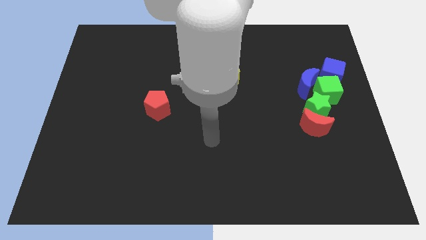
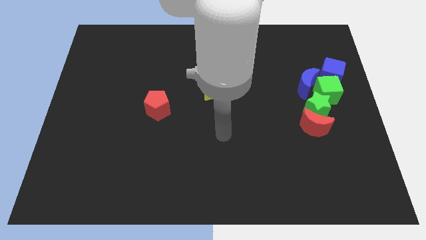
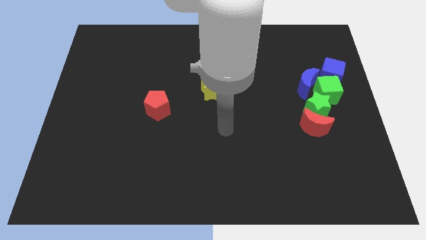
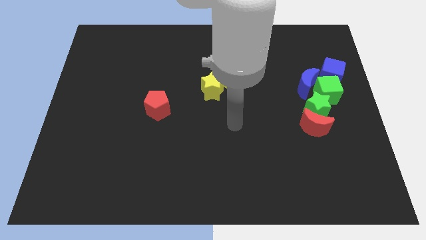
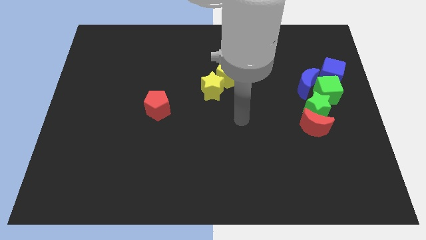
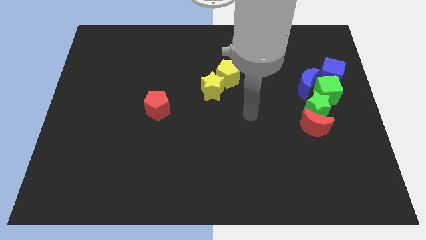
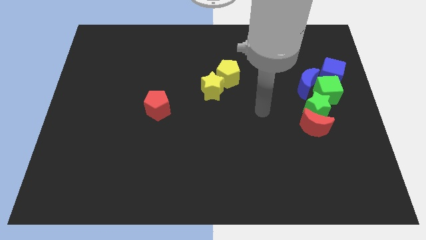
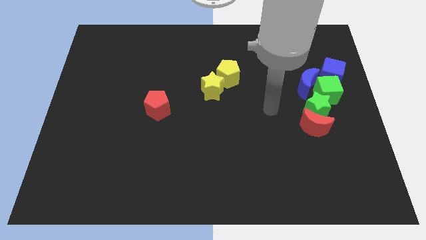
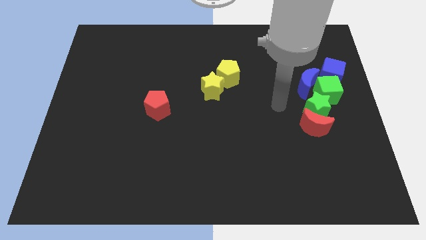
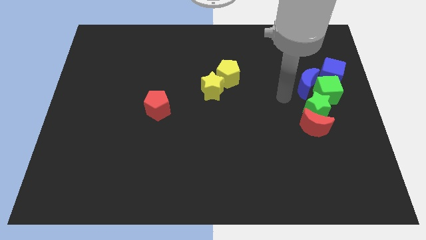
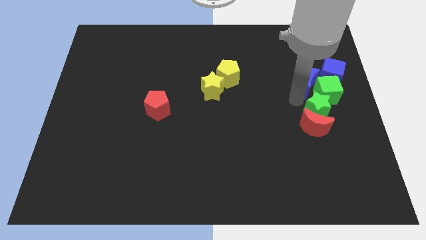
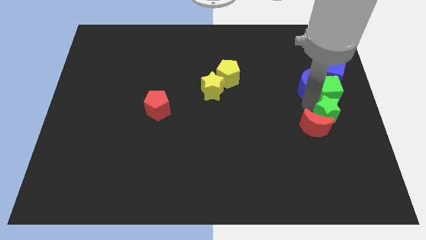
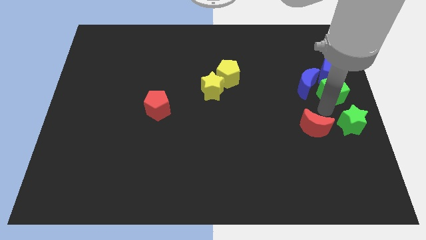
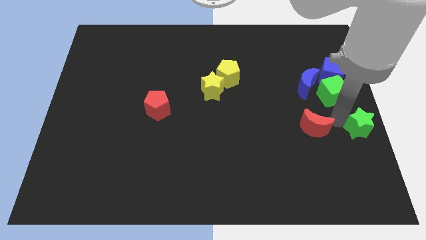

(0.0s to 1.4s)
separate the red moon from the green star

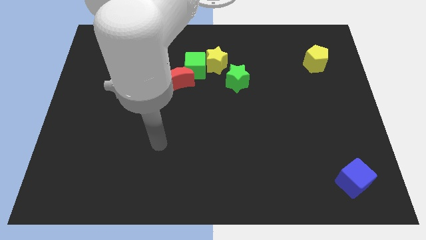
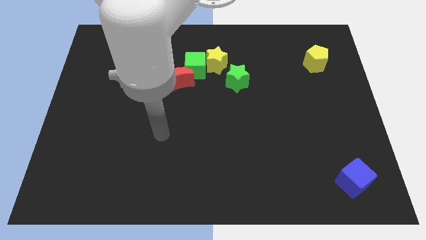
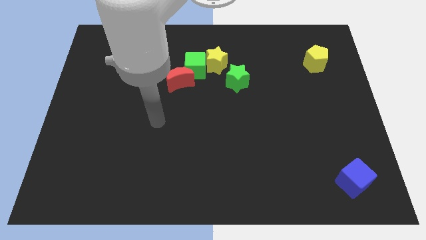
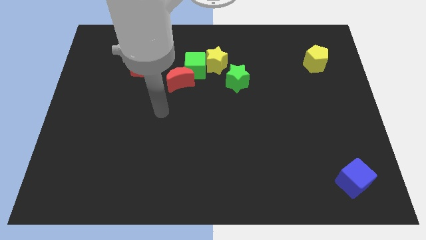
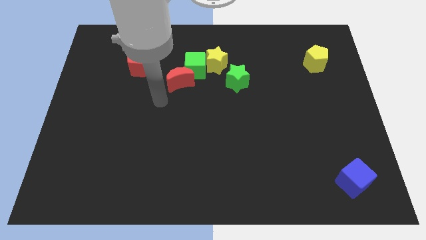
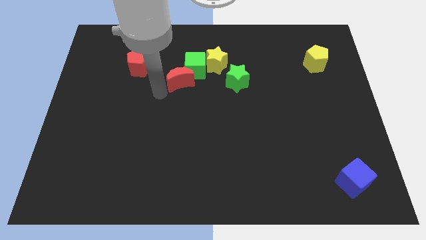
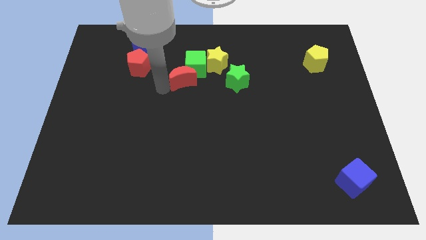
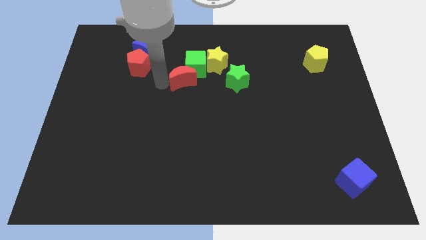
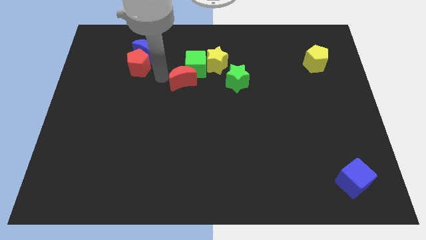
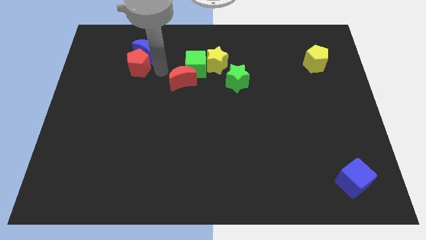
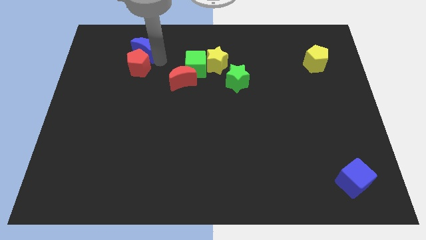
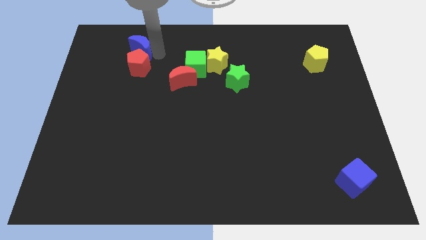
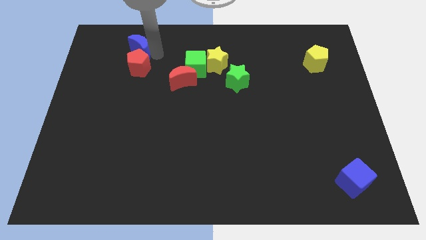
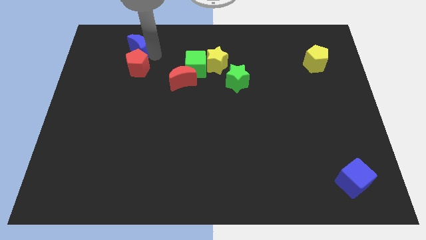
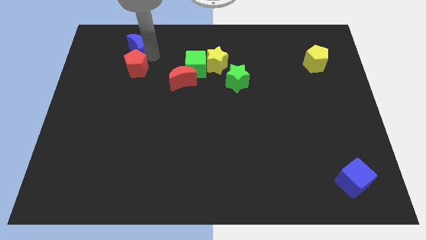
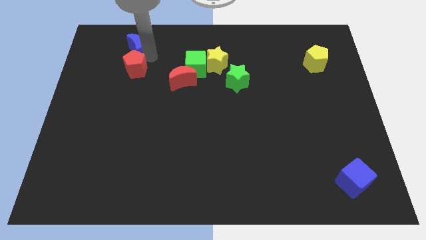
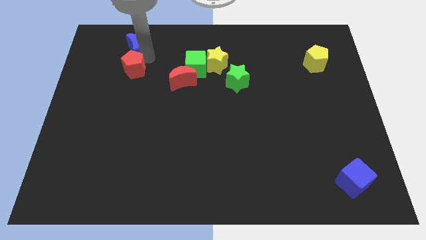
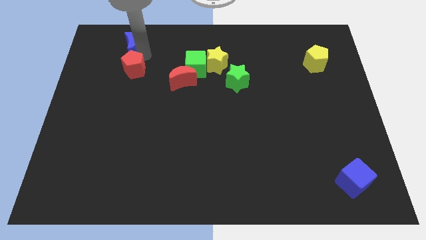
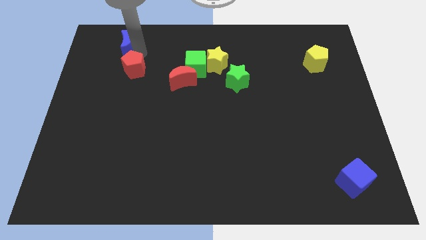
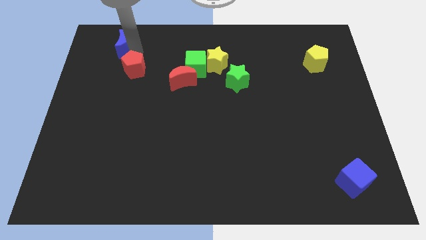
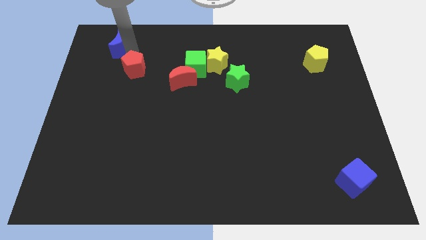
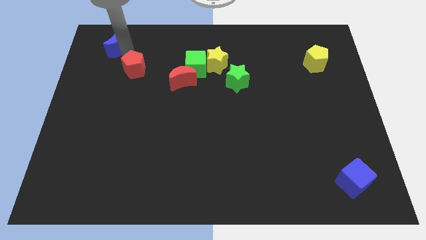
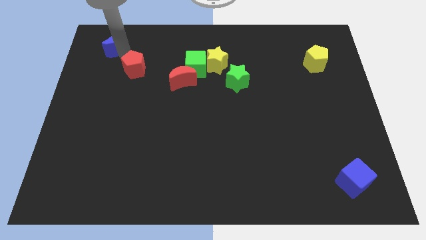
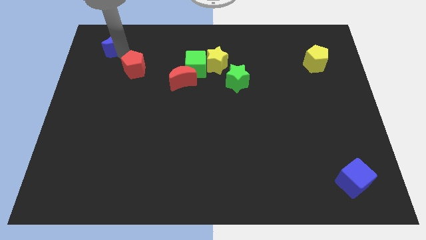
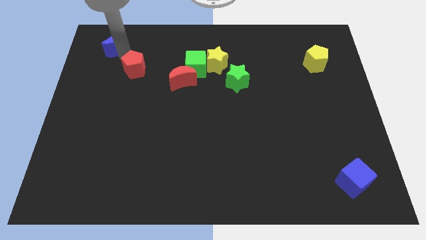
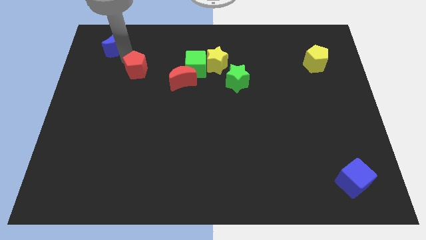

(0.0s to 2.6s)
separate the red pentagon from the blue moon

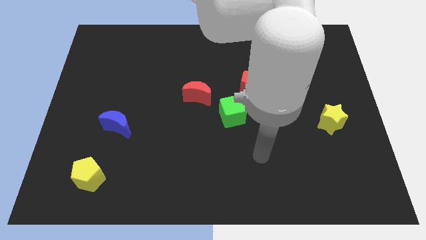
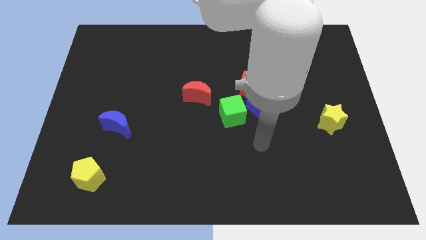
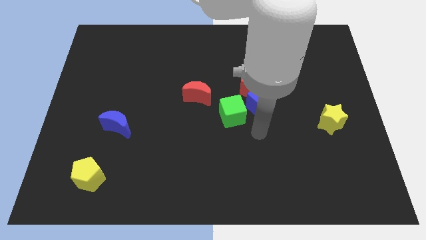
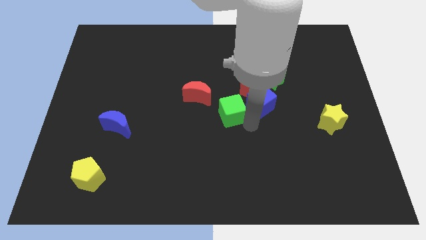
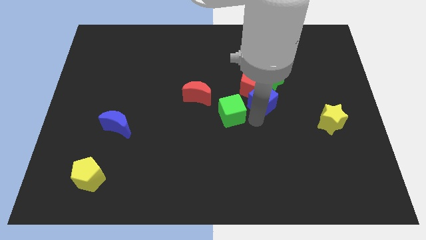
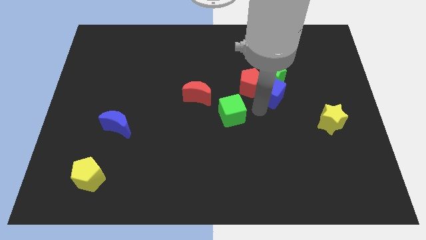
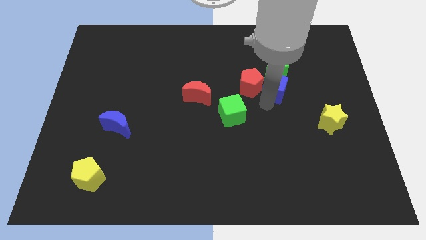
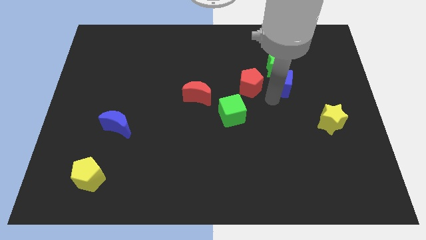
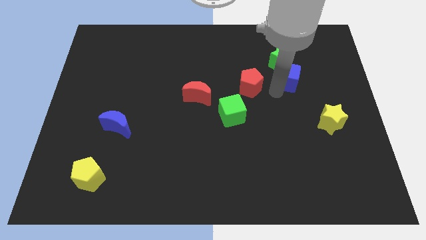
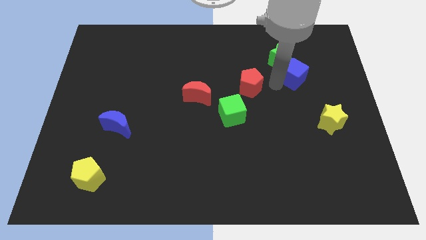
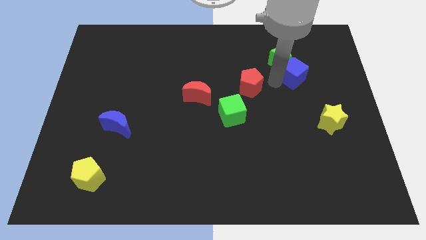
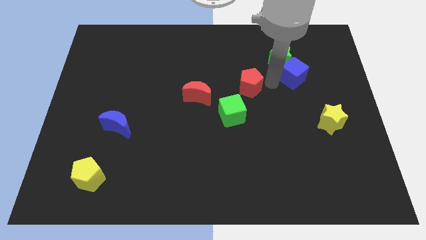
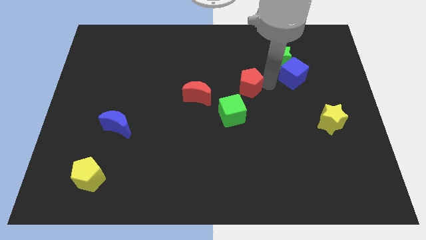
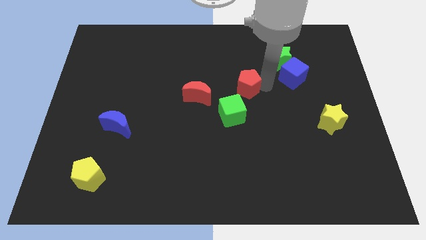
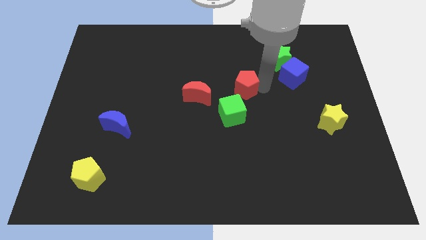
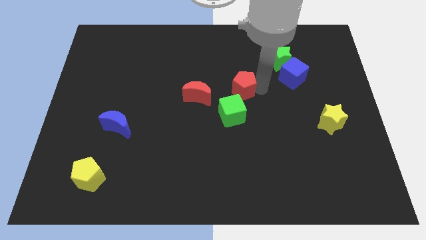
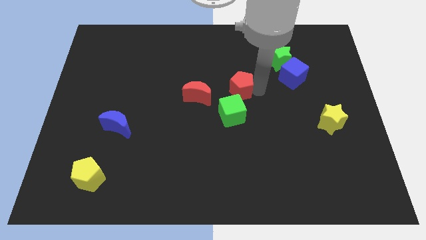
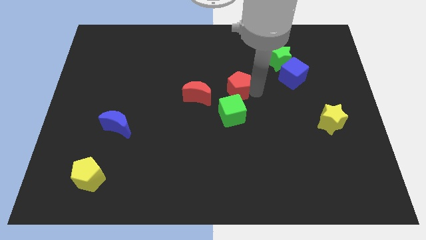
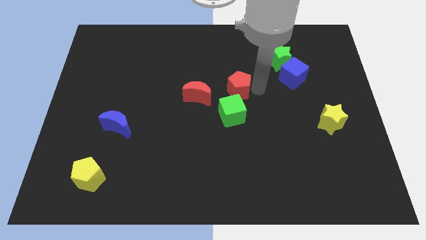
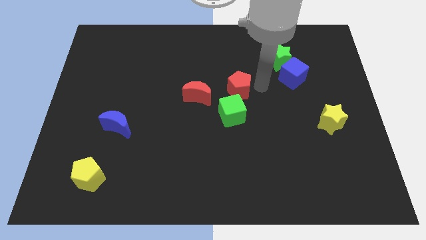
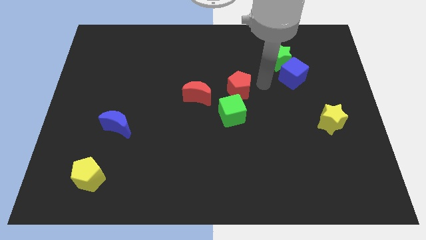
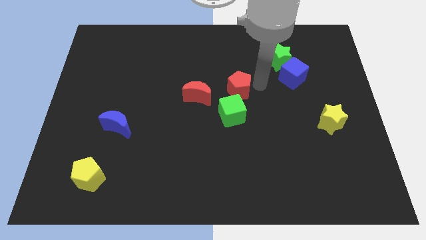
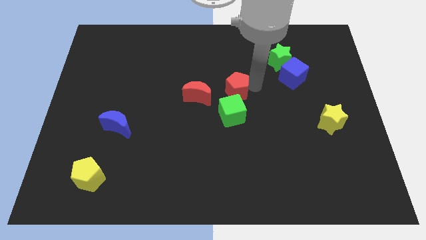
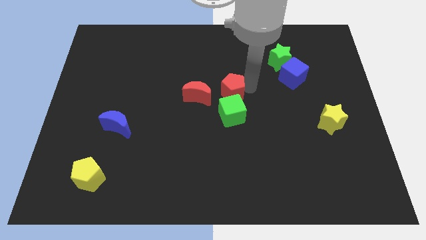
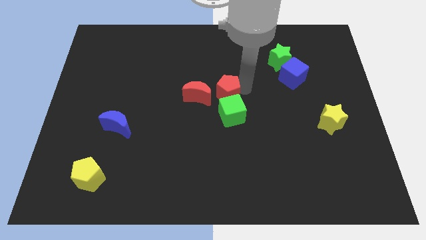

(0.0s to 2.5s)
move the red pentagon away from the clump

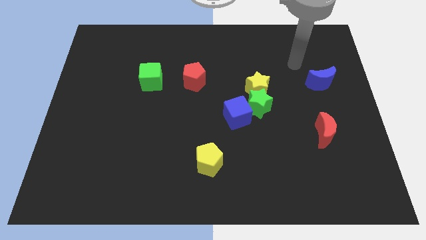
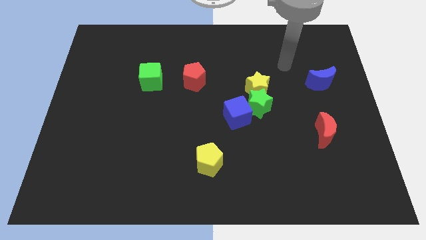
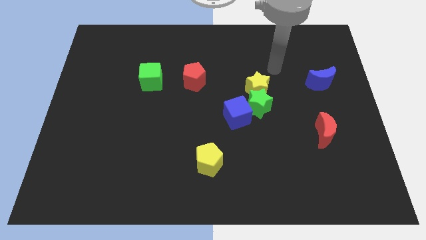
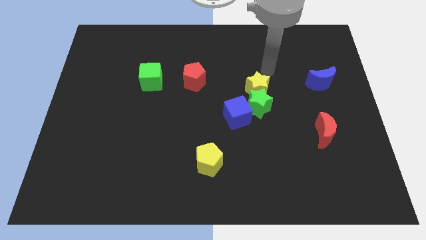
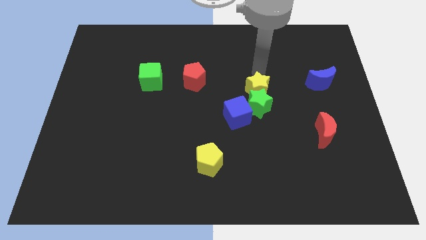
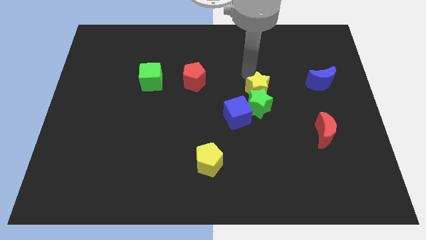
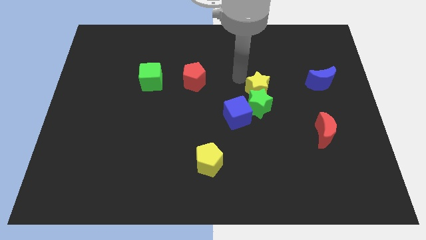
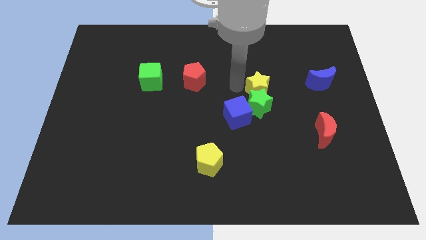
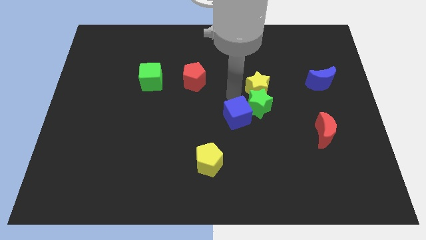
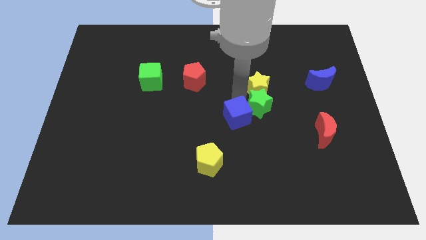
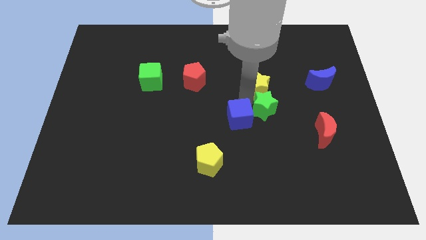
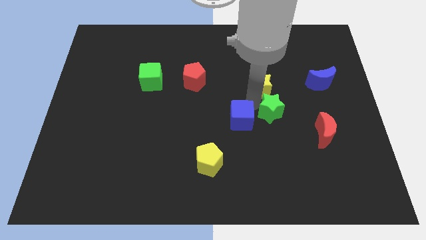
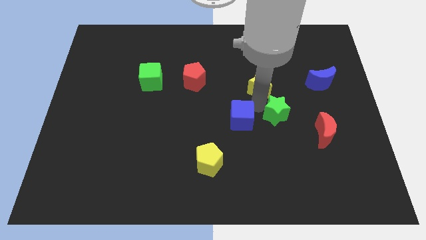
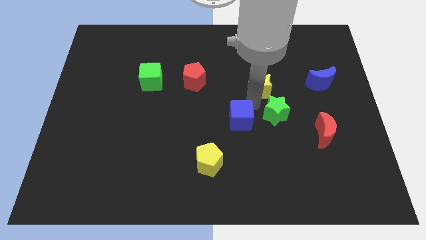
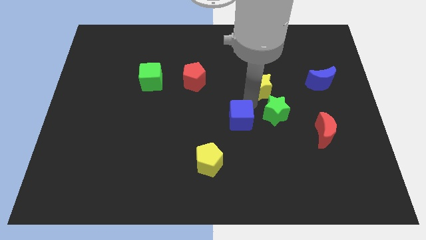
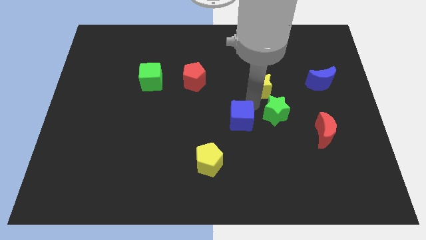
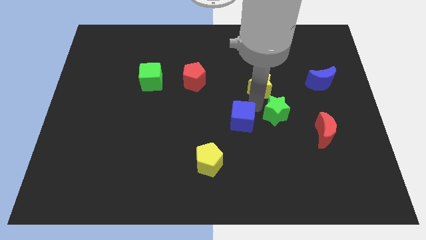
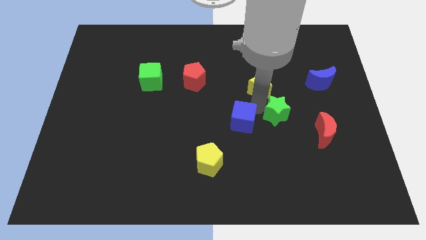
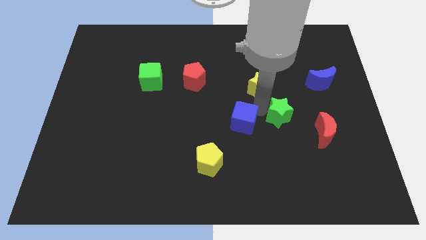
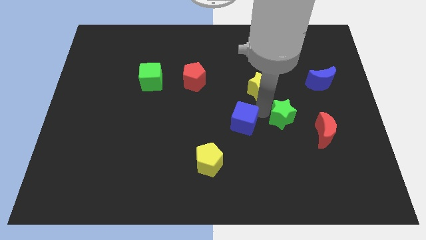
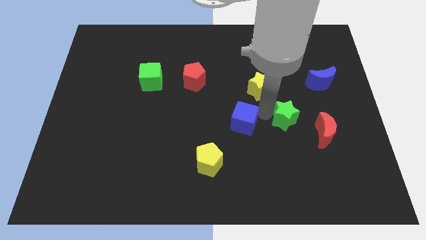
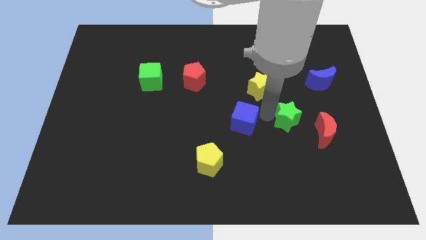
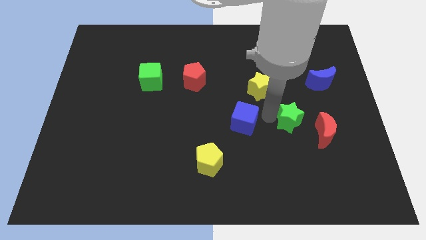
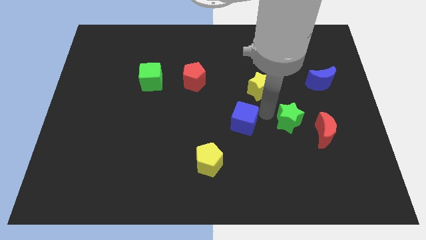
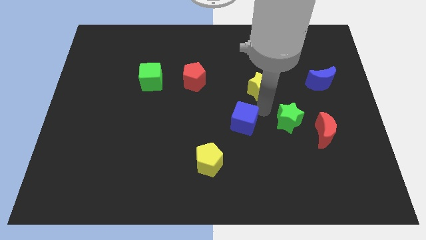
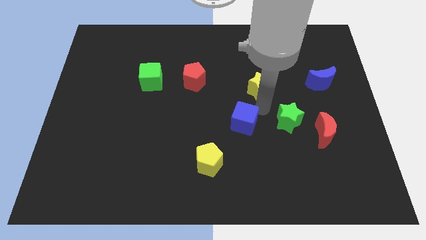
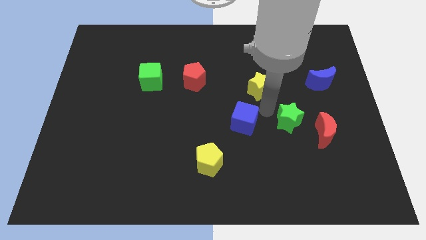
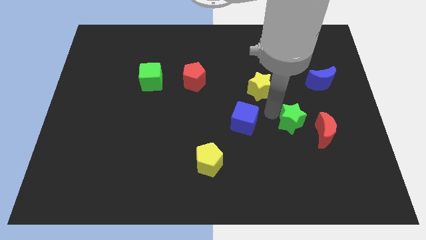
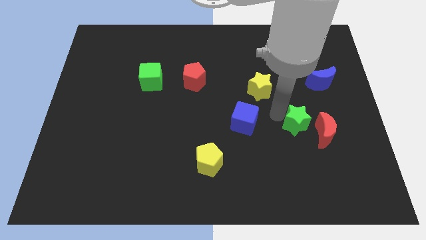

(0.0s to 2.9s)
separate the green star from the yellow star and blue cube
